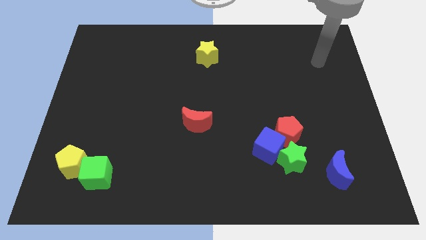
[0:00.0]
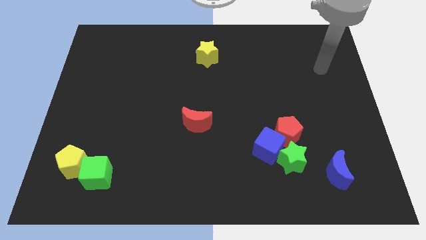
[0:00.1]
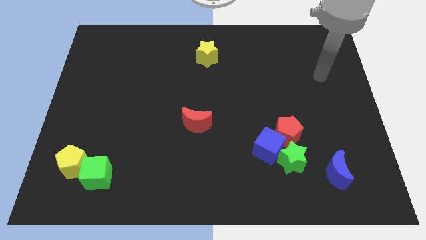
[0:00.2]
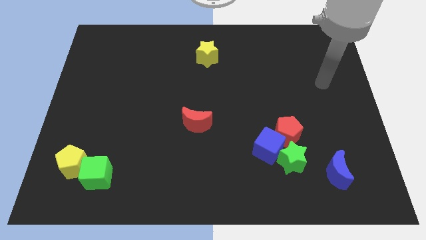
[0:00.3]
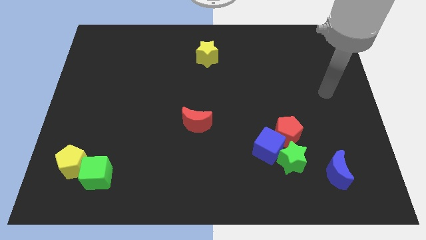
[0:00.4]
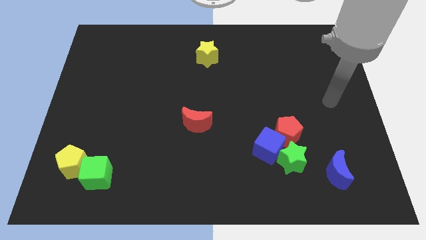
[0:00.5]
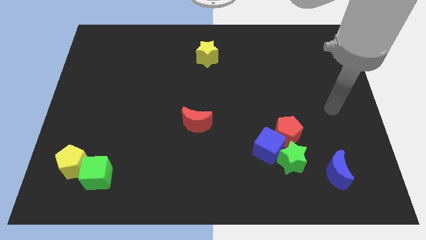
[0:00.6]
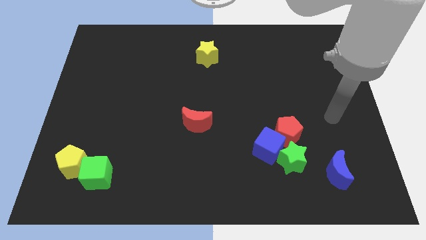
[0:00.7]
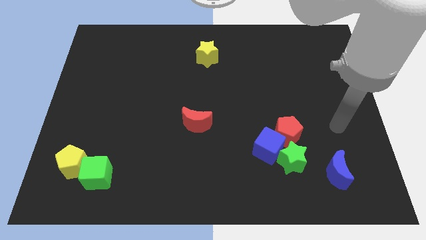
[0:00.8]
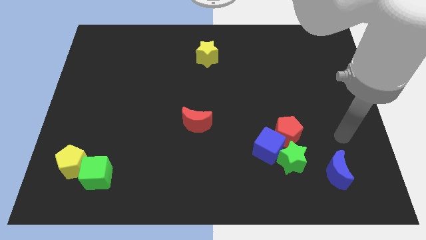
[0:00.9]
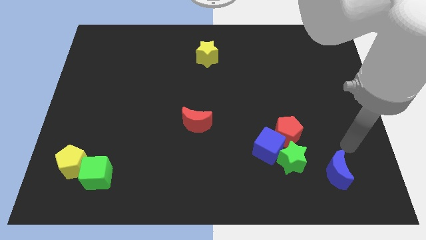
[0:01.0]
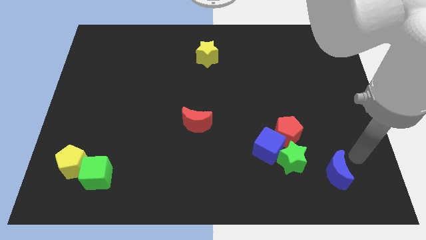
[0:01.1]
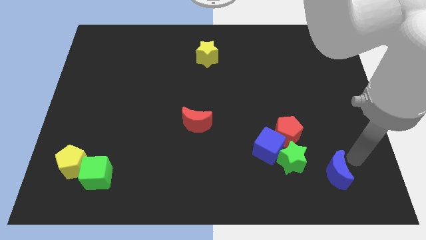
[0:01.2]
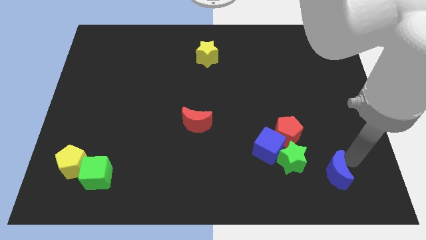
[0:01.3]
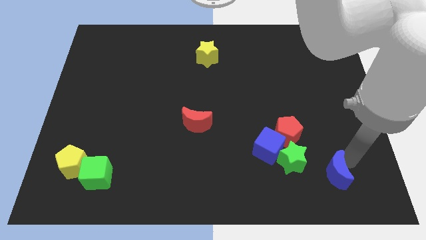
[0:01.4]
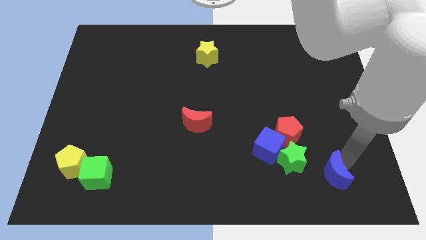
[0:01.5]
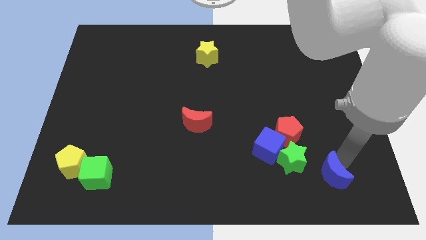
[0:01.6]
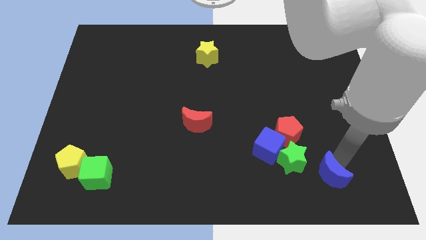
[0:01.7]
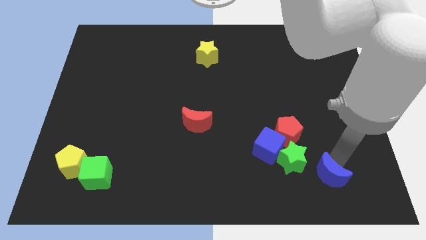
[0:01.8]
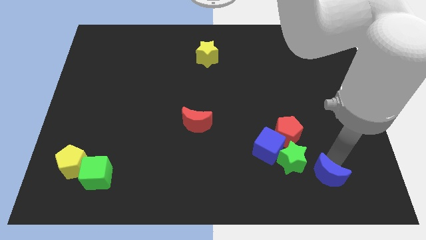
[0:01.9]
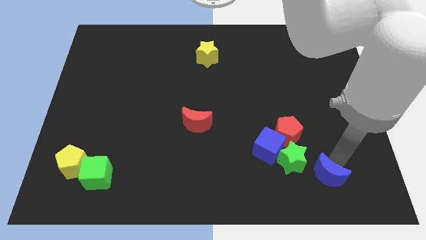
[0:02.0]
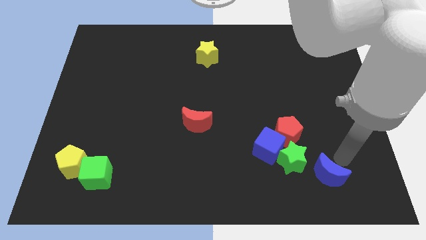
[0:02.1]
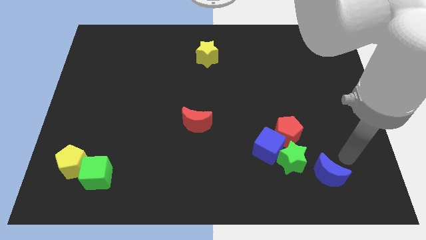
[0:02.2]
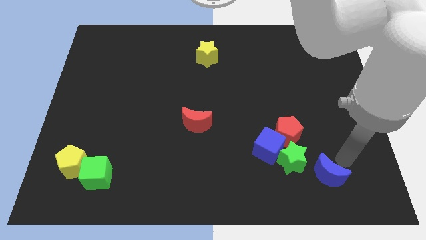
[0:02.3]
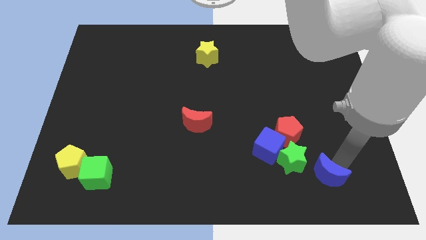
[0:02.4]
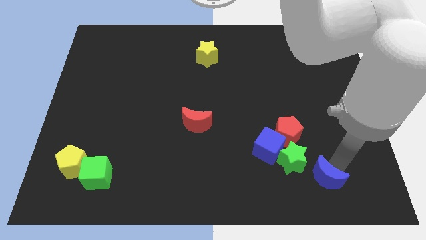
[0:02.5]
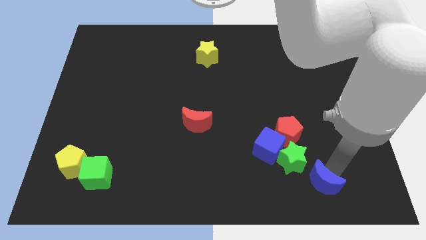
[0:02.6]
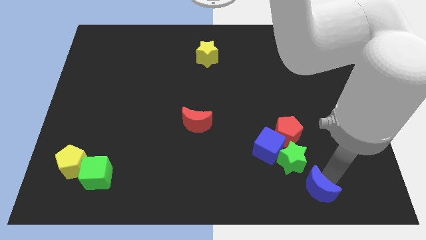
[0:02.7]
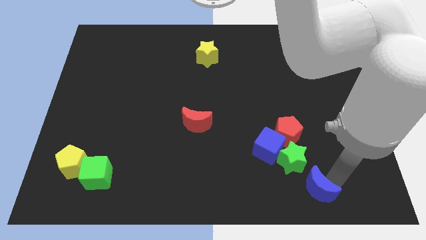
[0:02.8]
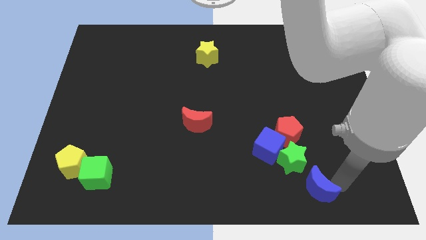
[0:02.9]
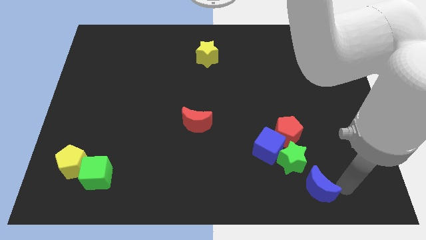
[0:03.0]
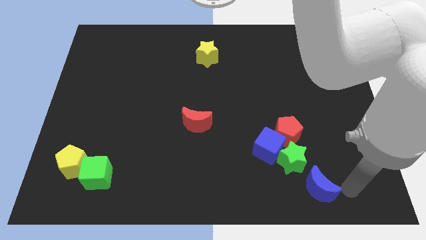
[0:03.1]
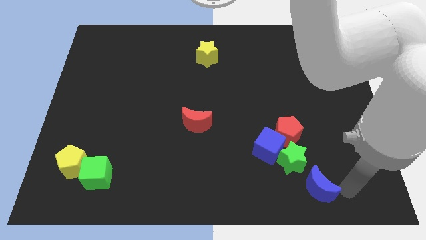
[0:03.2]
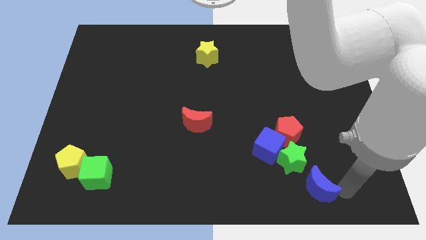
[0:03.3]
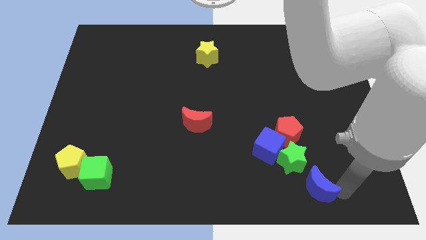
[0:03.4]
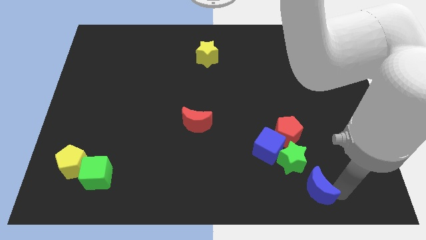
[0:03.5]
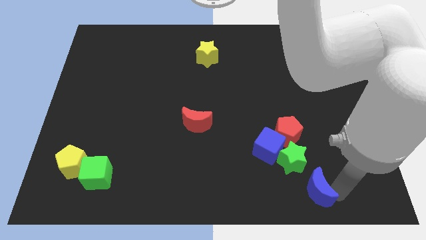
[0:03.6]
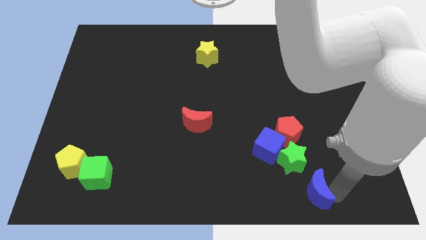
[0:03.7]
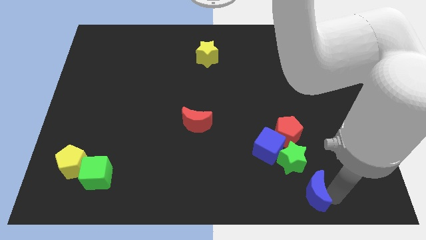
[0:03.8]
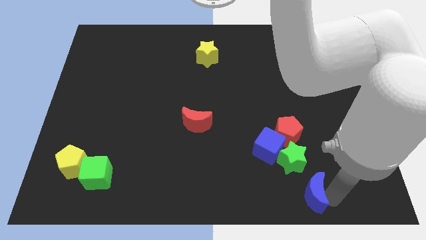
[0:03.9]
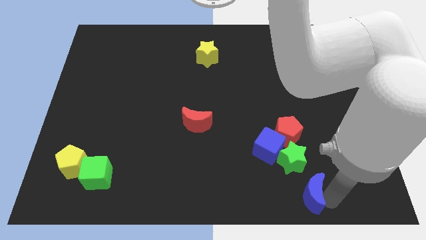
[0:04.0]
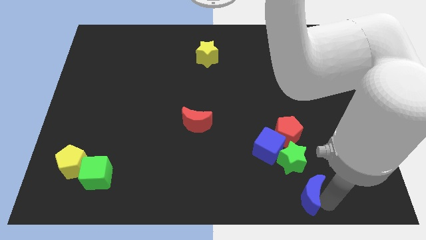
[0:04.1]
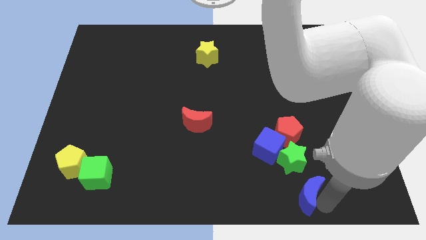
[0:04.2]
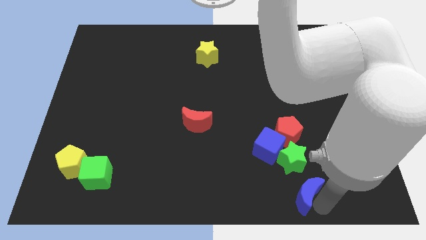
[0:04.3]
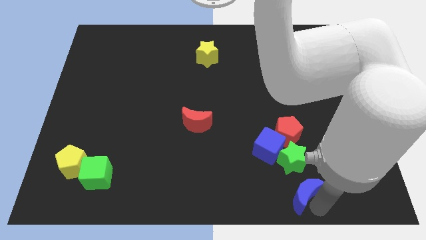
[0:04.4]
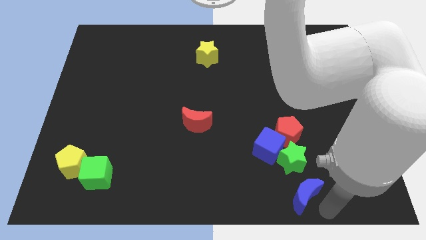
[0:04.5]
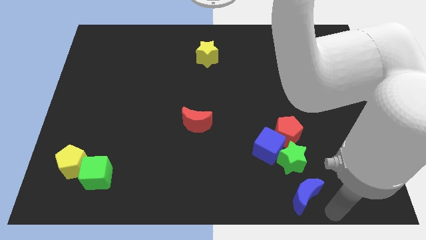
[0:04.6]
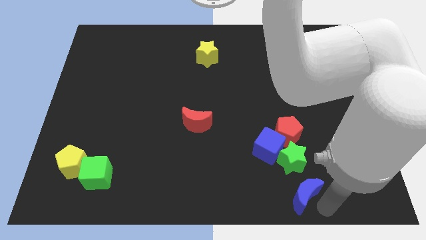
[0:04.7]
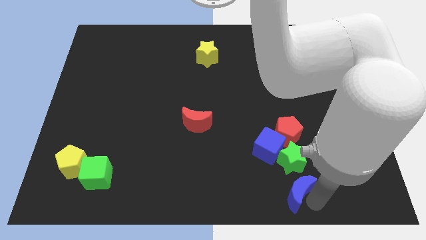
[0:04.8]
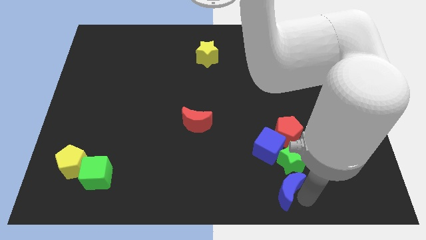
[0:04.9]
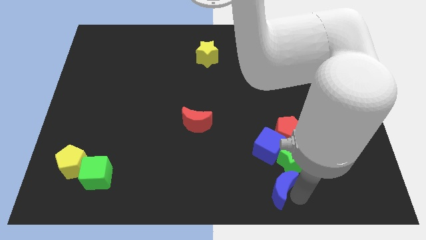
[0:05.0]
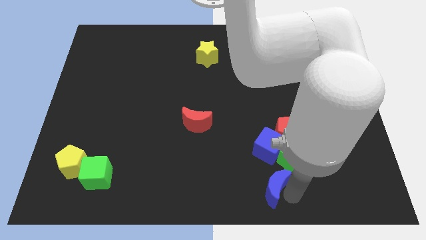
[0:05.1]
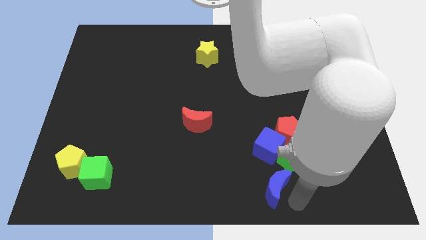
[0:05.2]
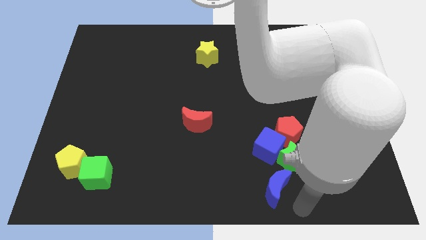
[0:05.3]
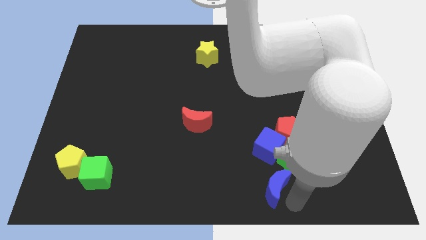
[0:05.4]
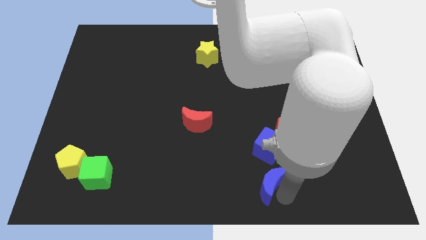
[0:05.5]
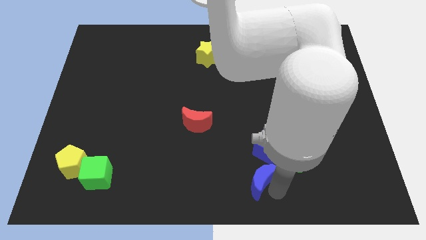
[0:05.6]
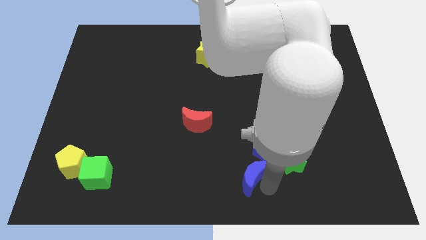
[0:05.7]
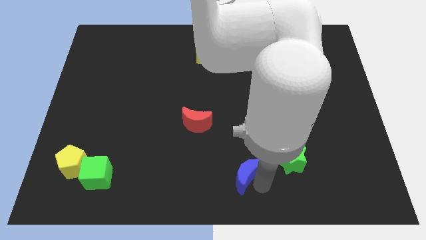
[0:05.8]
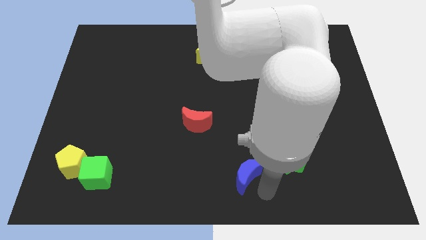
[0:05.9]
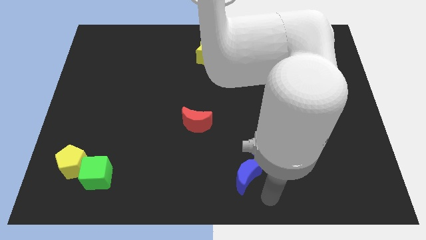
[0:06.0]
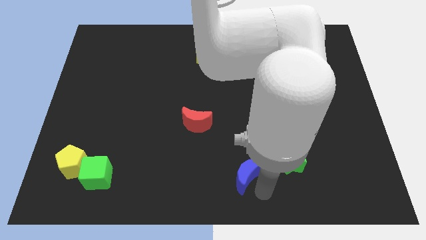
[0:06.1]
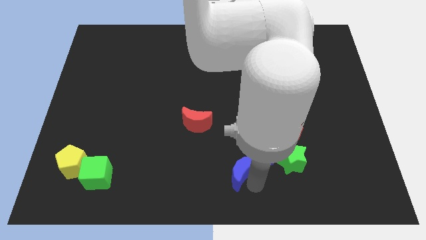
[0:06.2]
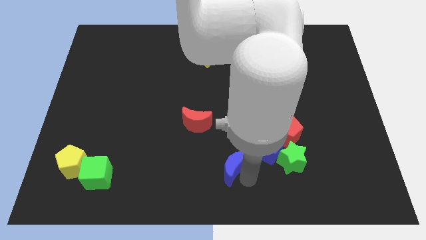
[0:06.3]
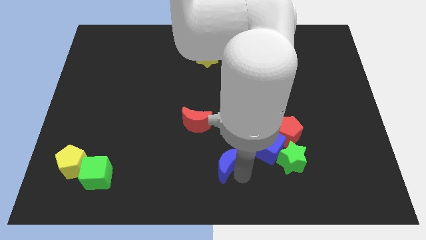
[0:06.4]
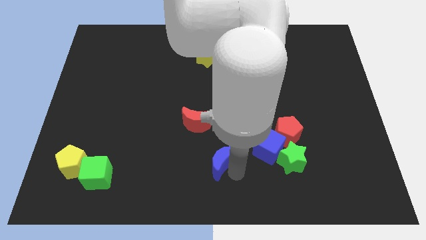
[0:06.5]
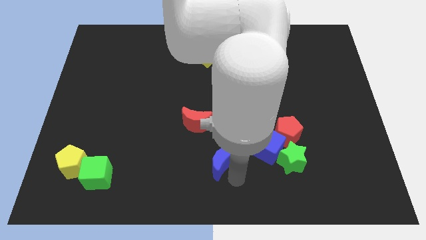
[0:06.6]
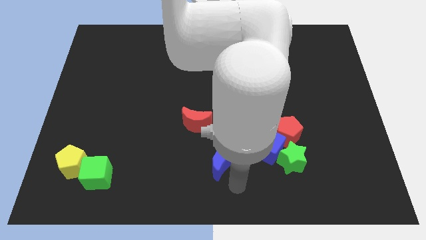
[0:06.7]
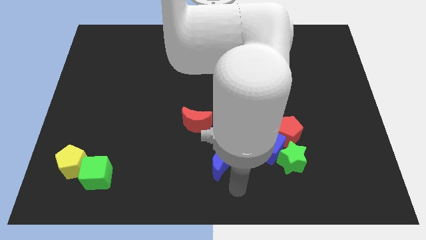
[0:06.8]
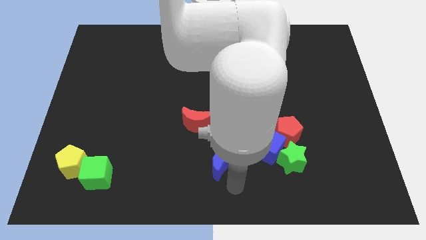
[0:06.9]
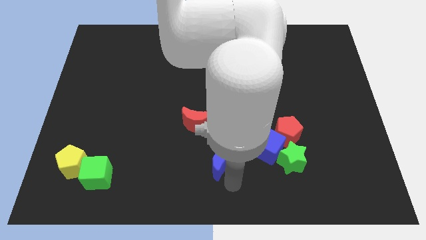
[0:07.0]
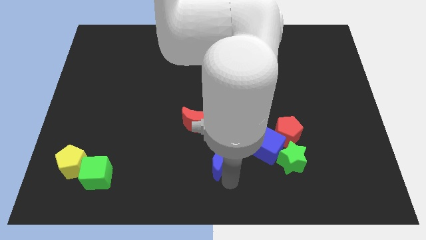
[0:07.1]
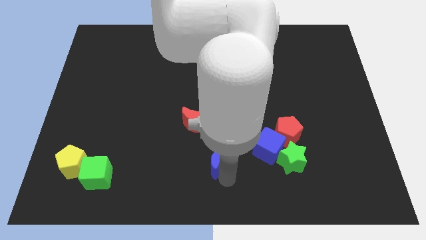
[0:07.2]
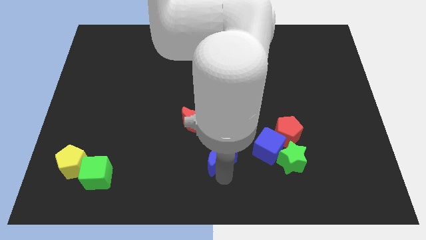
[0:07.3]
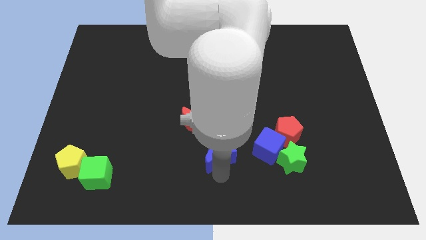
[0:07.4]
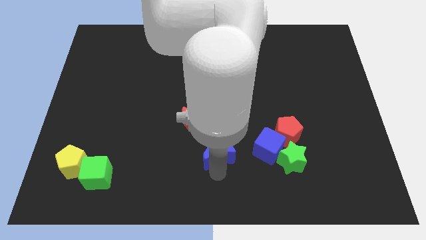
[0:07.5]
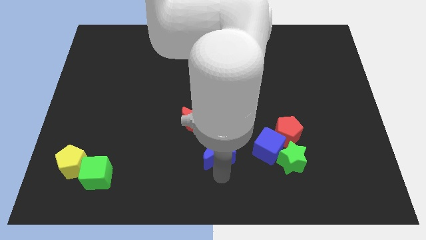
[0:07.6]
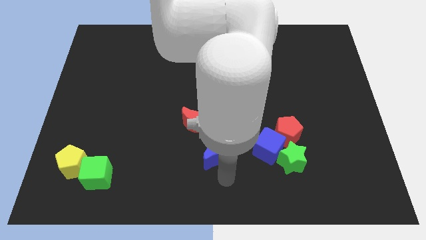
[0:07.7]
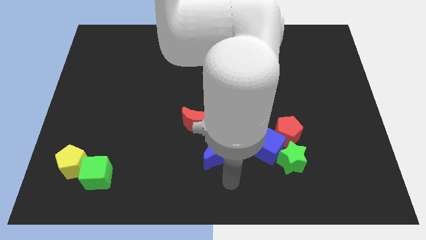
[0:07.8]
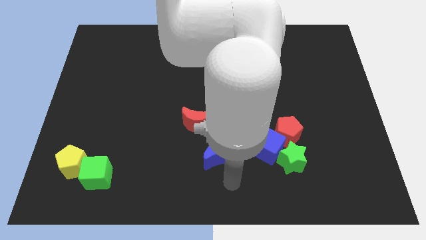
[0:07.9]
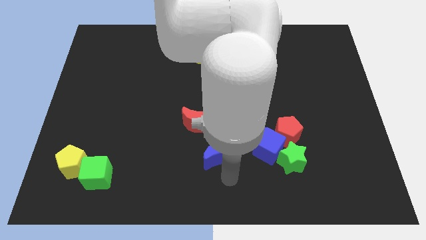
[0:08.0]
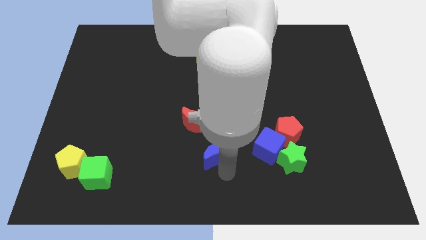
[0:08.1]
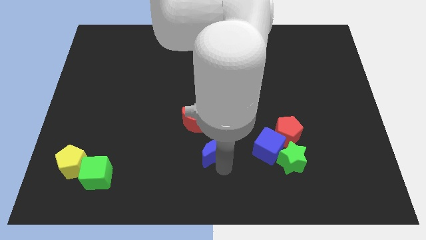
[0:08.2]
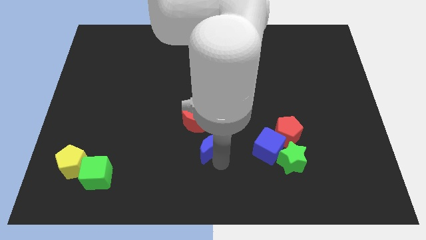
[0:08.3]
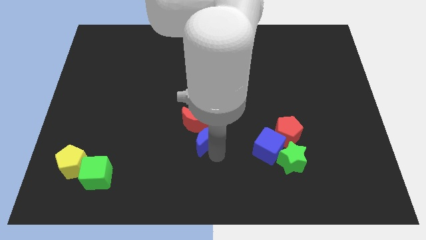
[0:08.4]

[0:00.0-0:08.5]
slide the blue moon to the red moon
